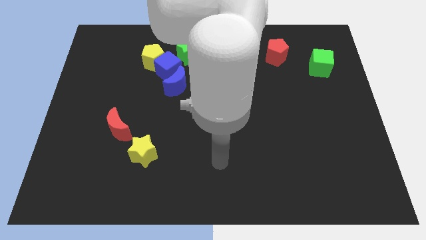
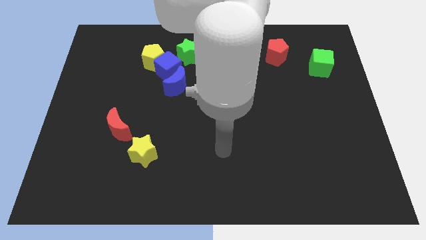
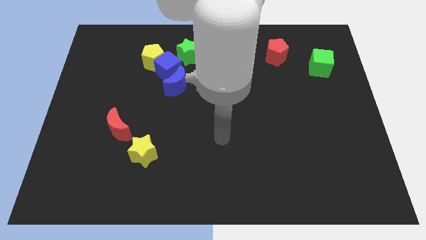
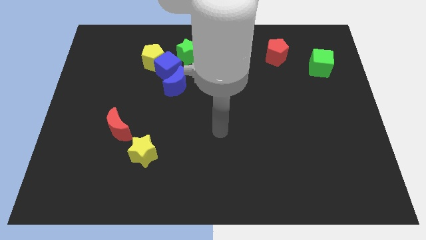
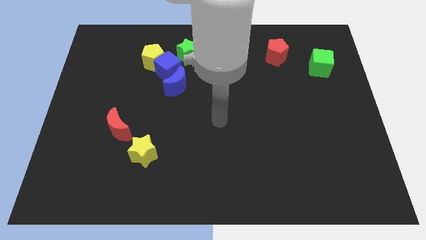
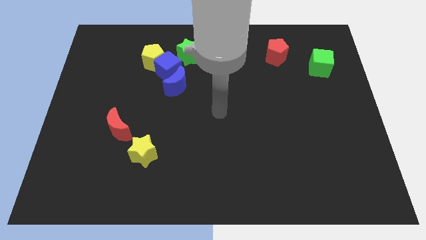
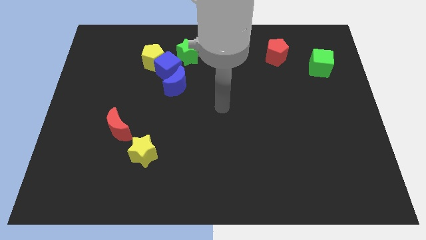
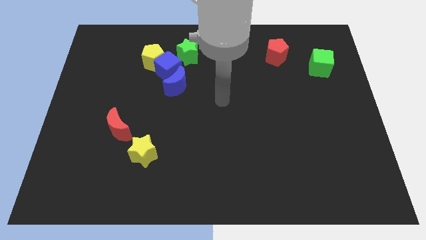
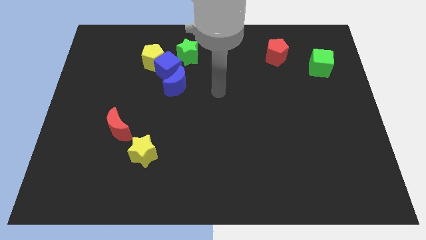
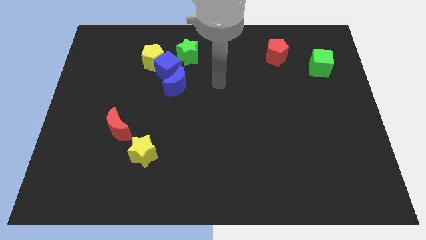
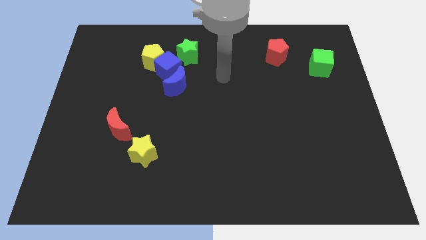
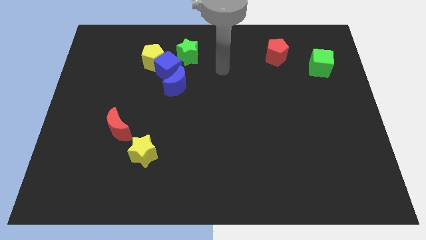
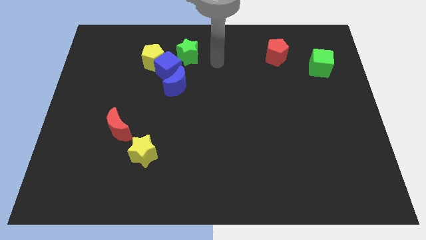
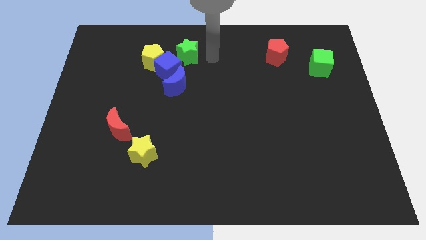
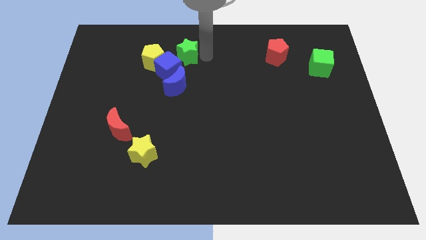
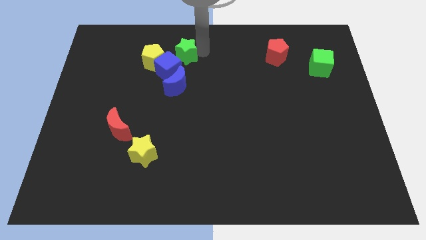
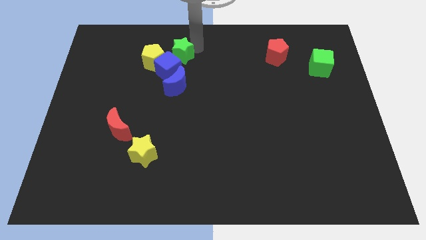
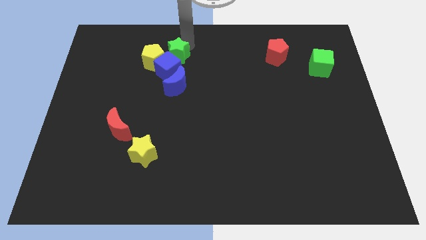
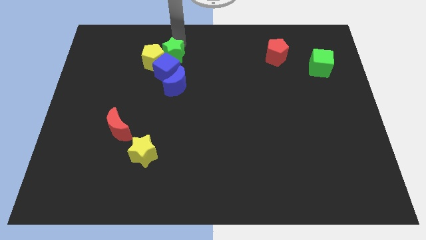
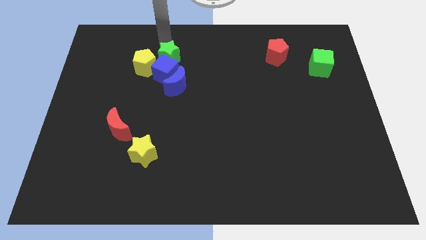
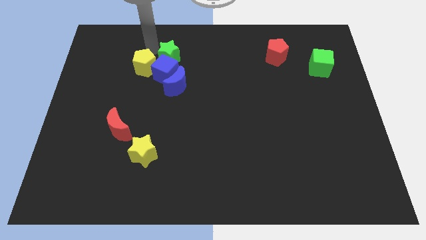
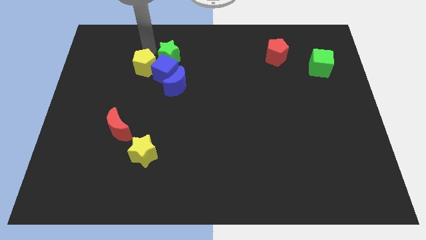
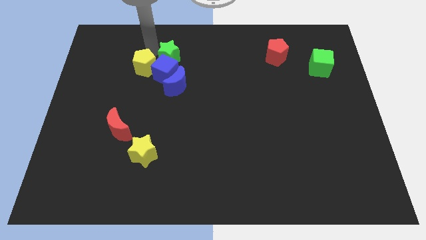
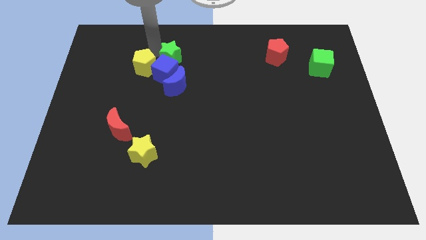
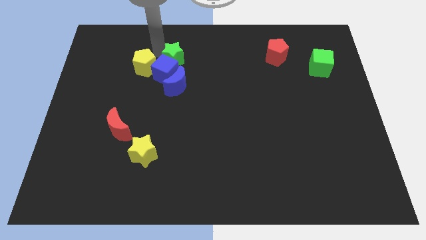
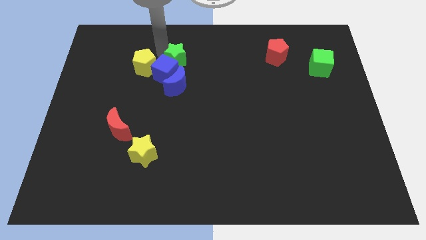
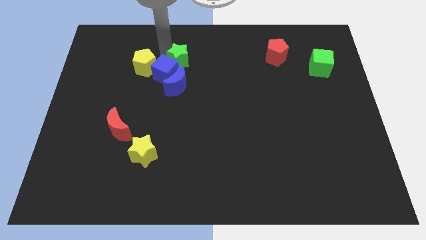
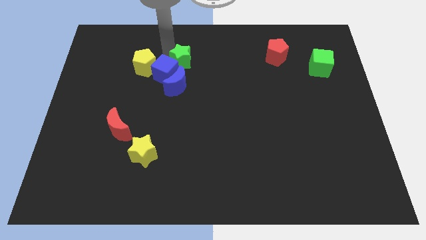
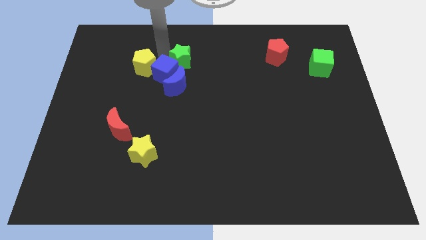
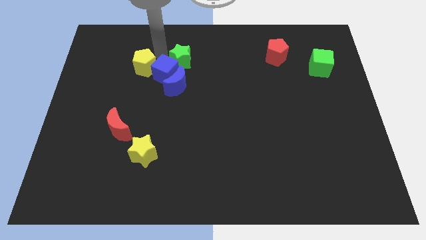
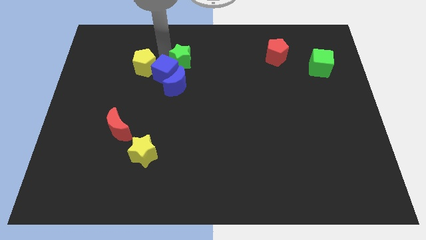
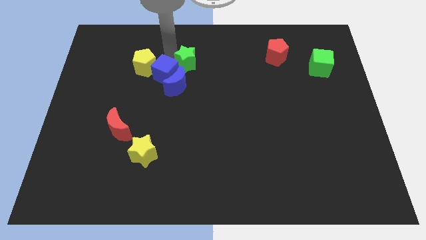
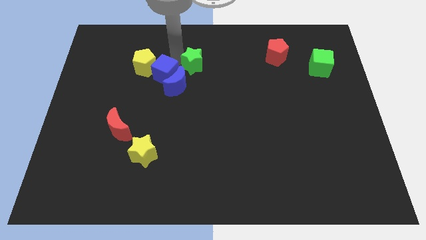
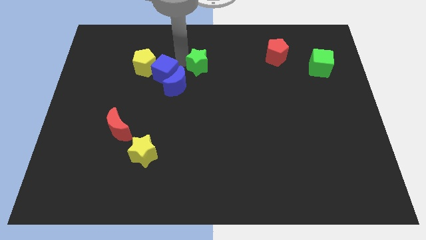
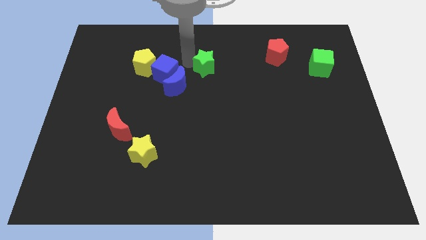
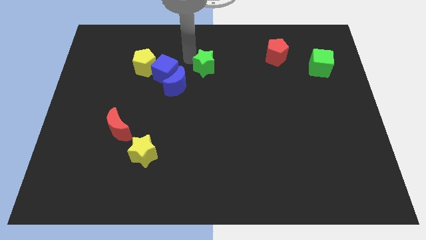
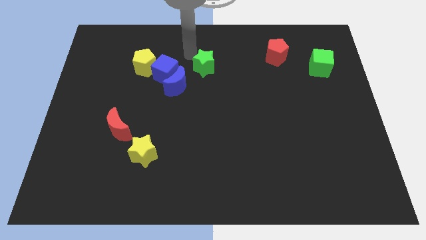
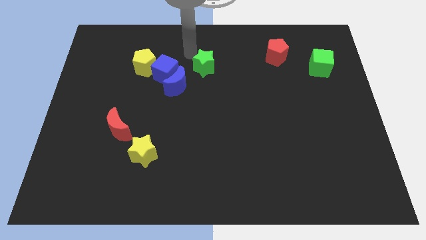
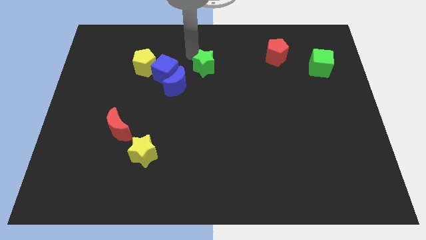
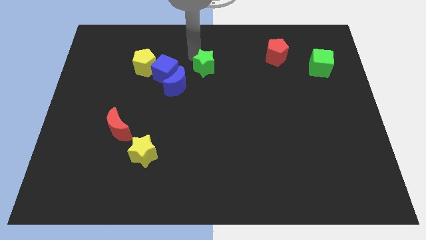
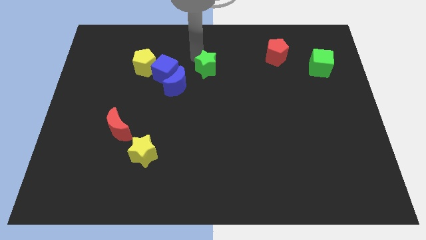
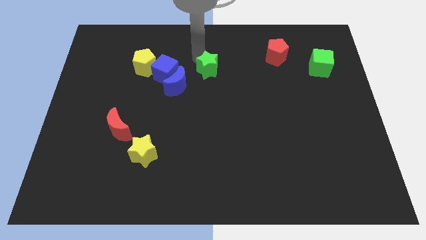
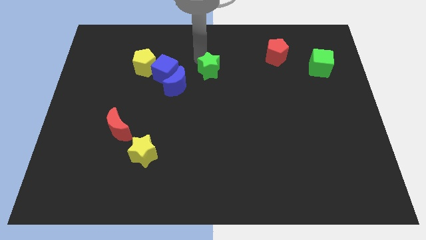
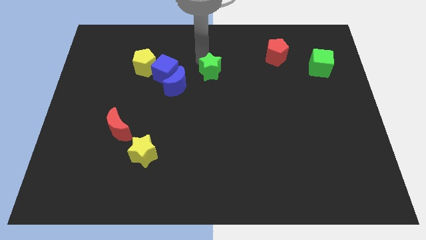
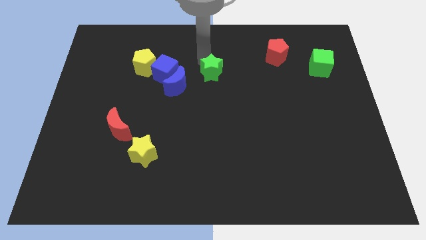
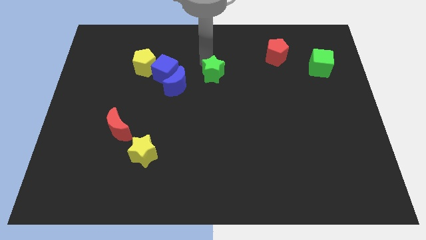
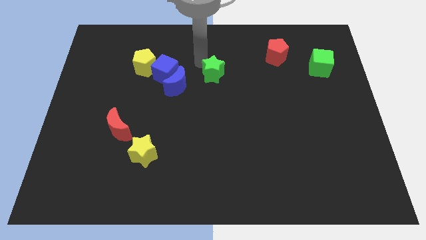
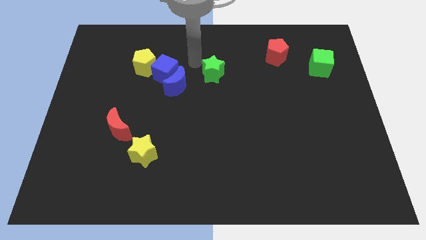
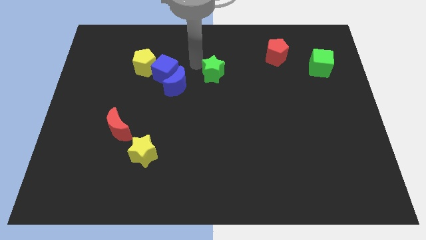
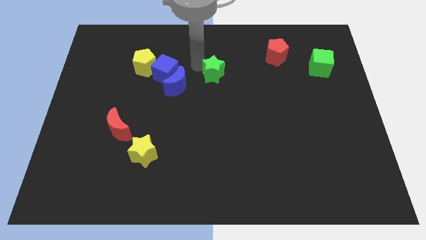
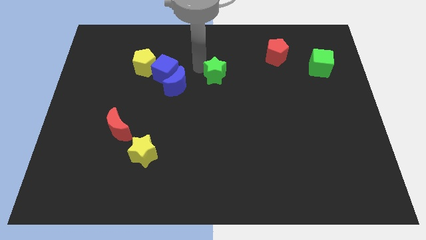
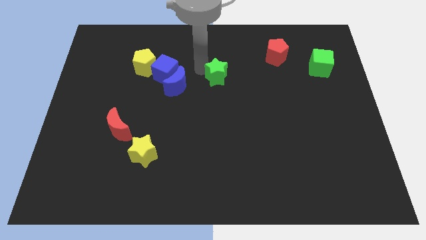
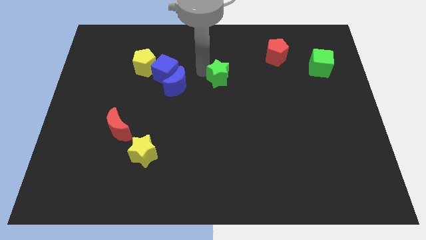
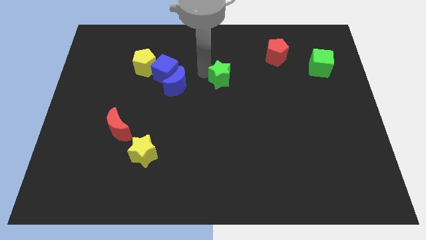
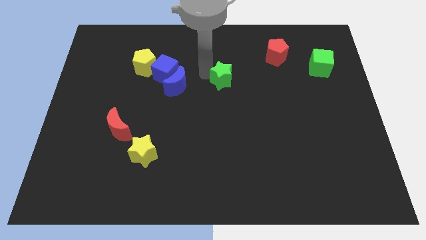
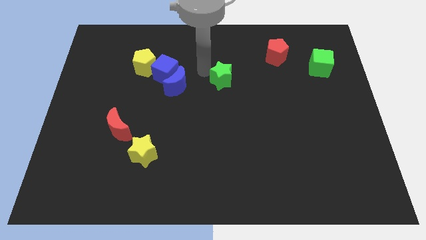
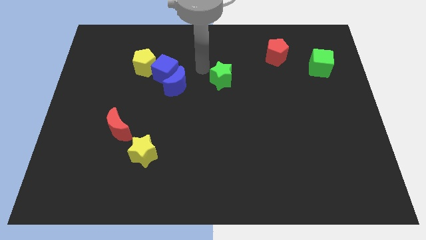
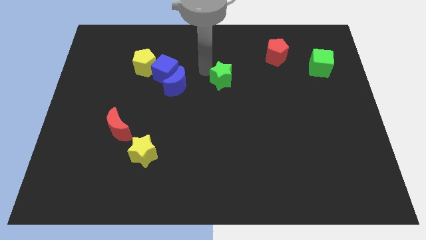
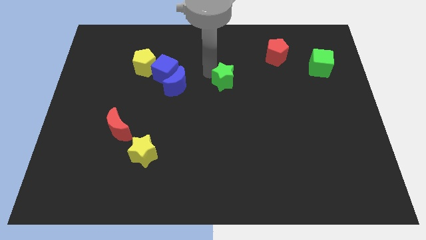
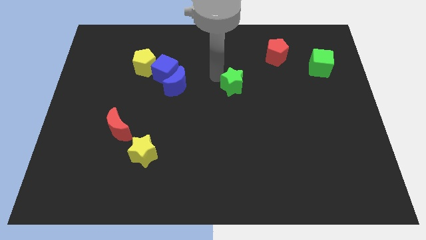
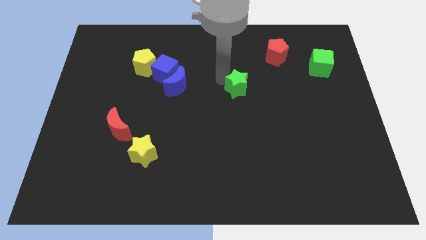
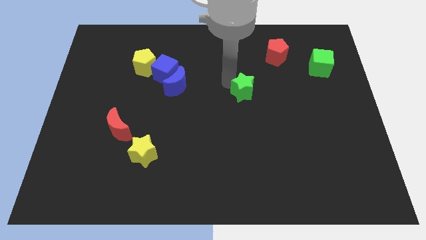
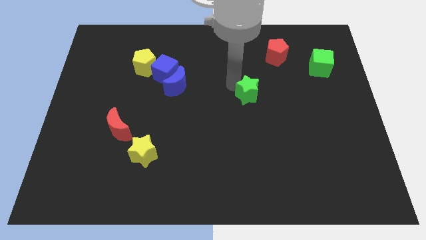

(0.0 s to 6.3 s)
slide the green star down and right diagonally

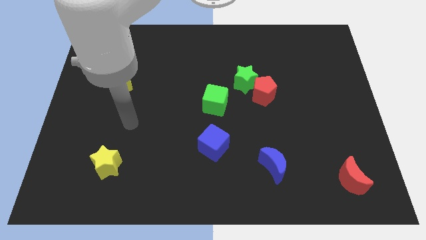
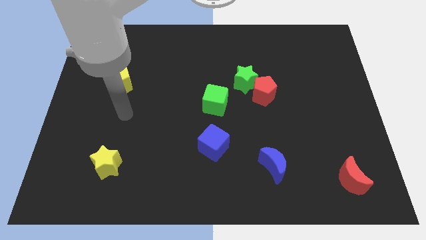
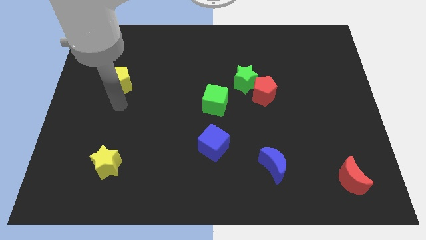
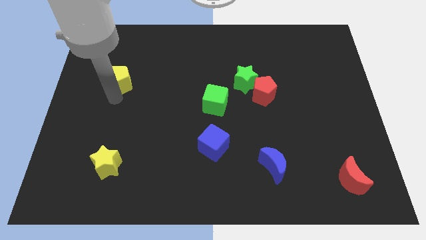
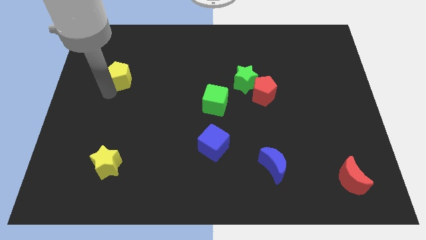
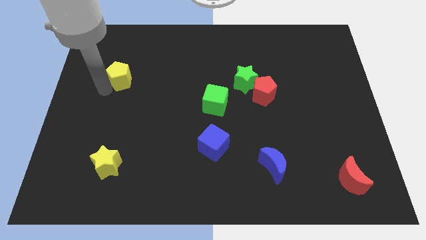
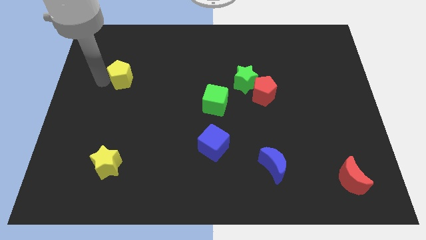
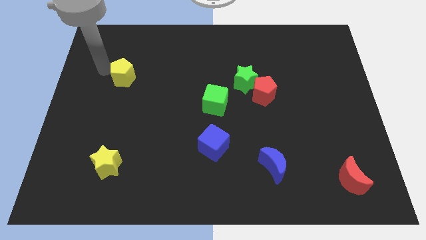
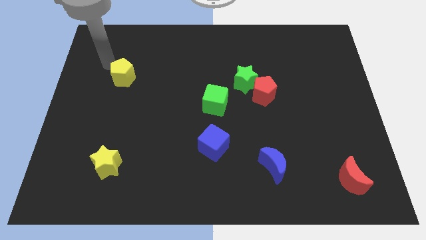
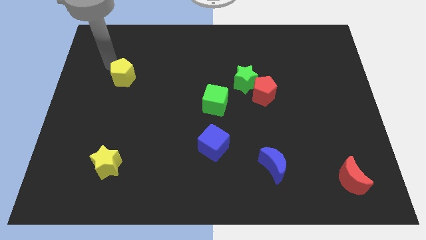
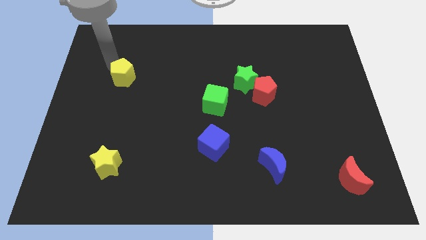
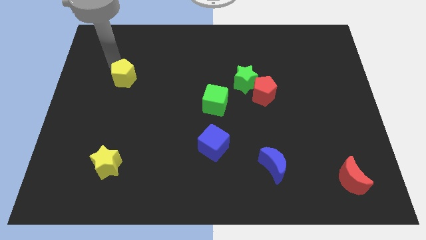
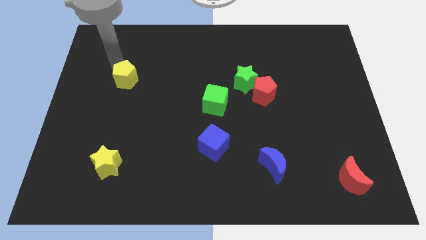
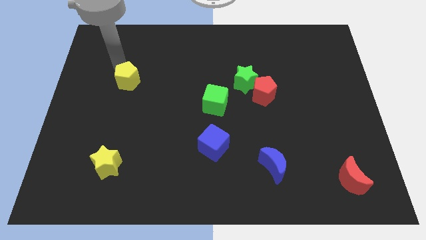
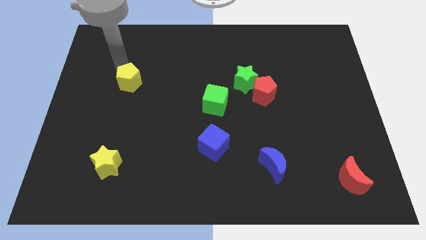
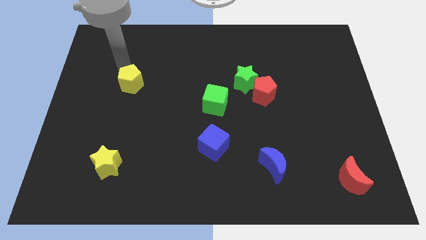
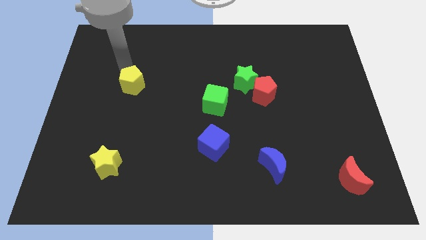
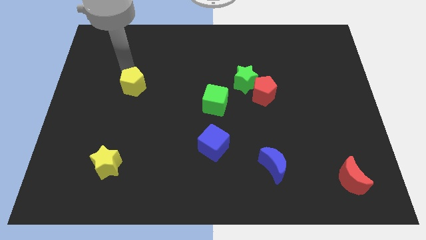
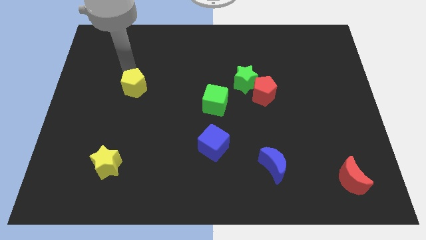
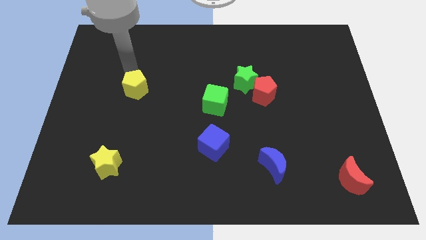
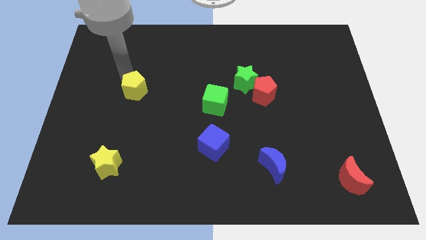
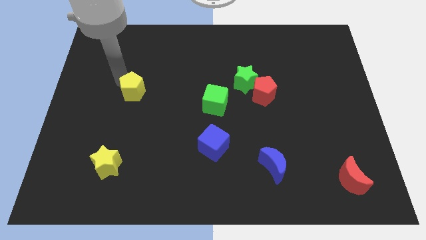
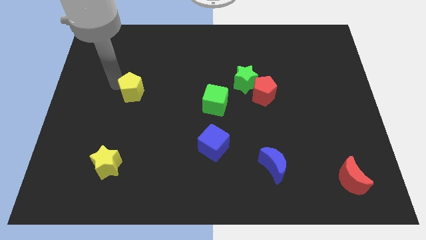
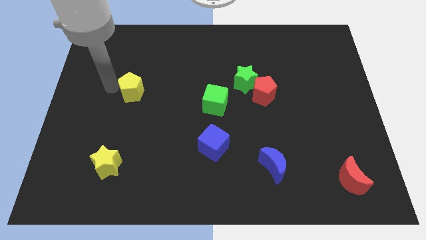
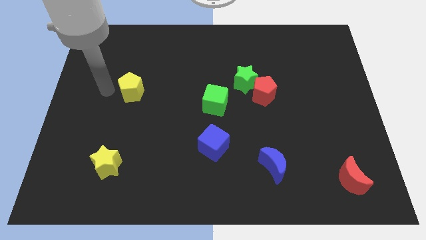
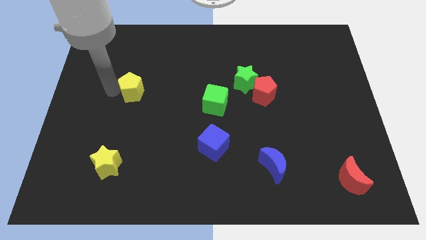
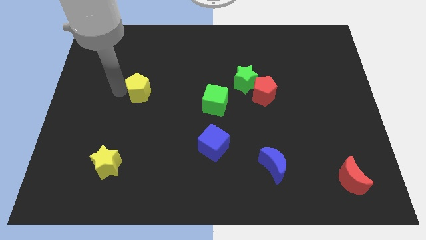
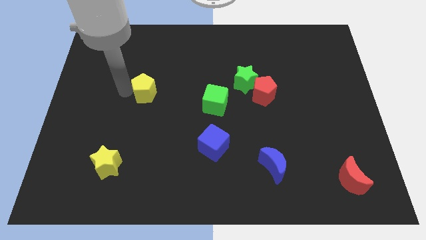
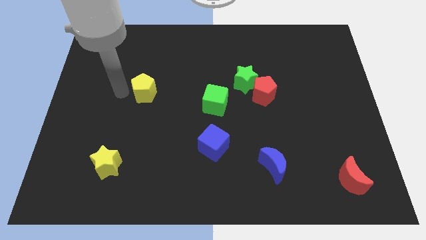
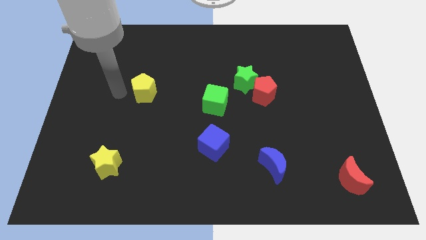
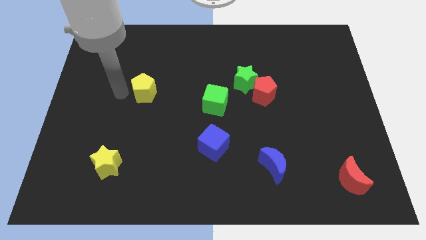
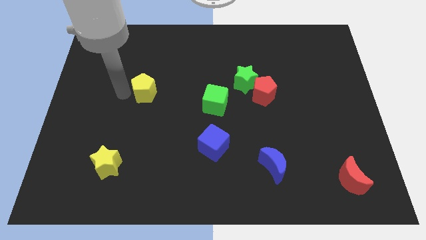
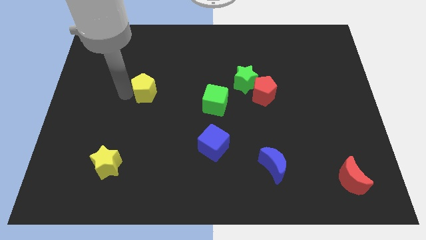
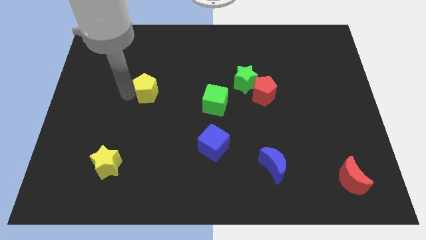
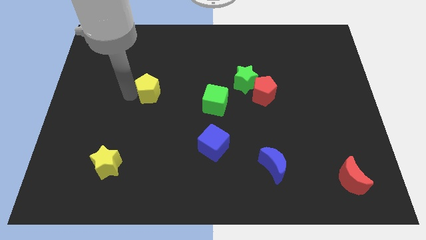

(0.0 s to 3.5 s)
slide the yellow pentagon somewhat right
